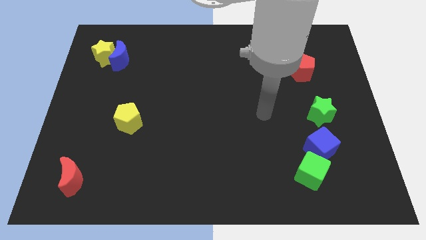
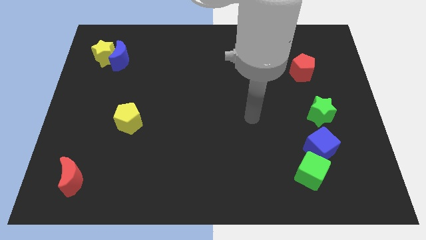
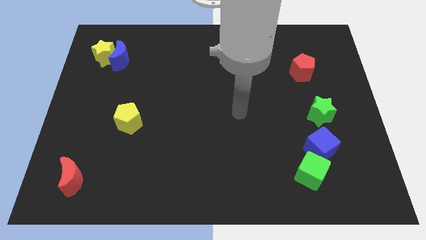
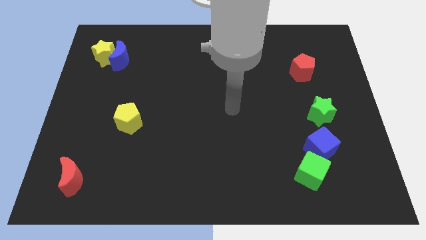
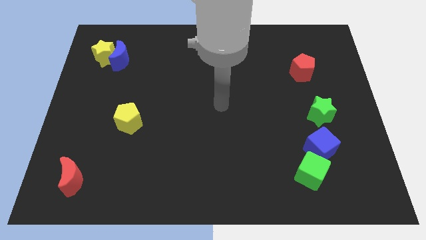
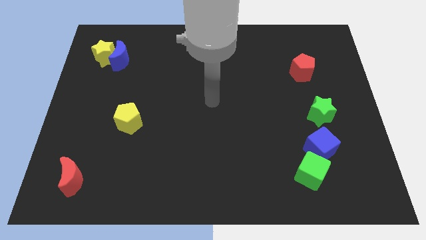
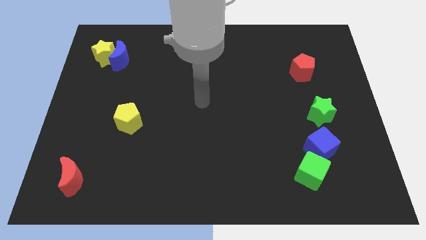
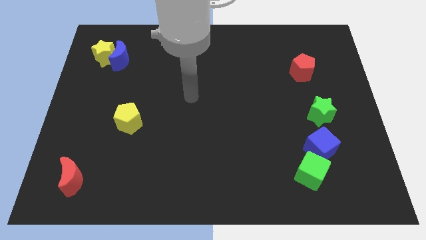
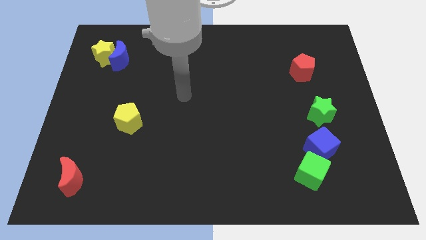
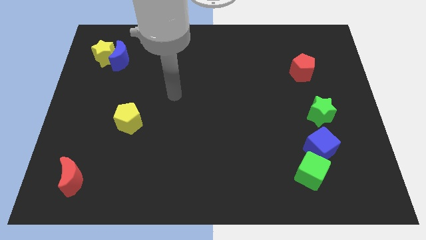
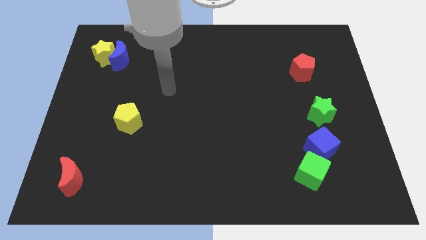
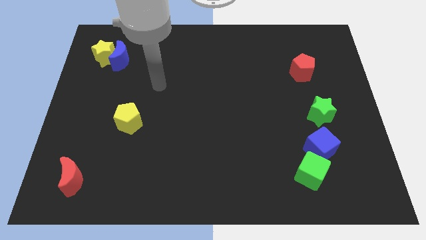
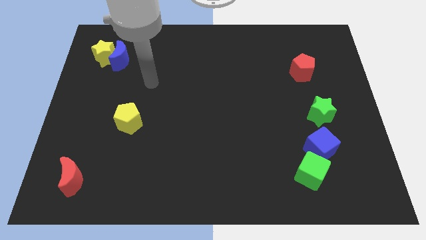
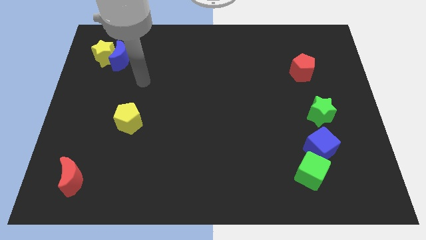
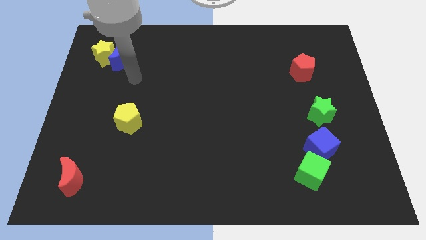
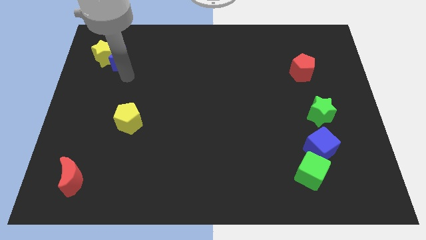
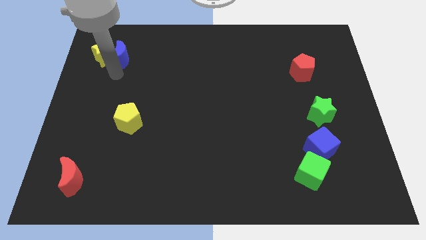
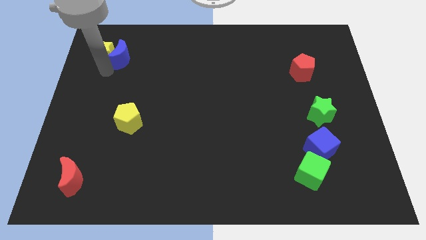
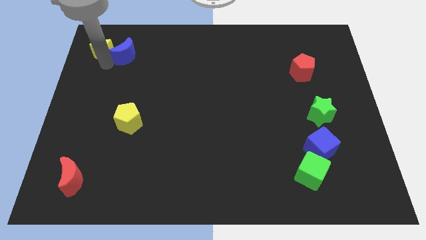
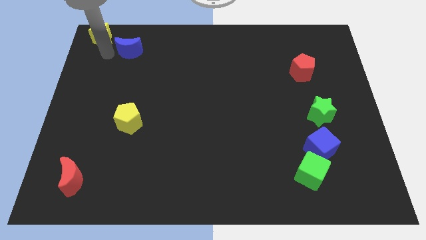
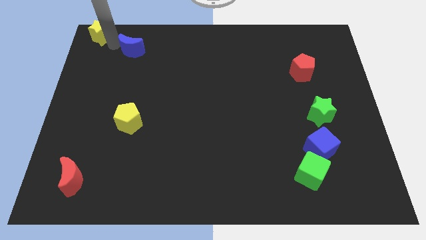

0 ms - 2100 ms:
separate the blue moon from the yellow star

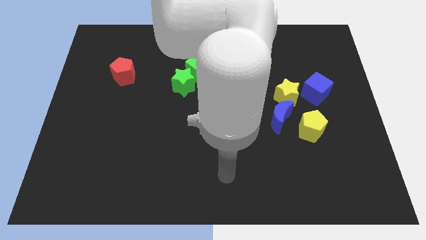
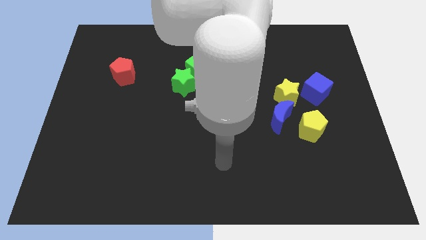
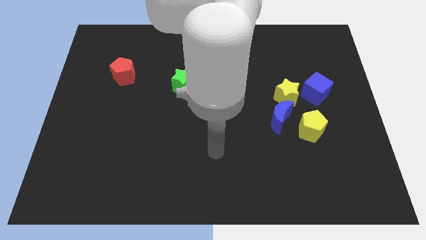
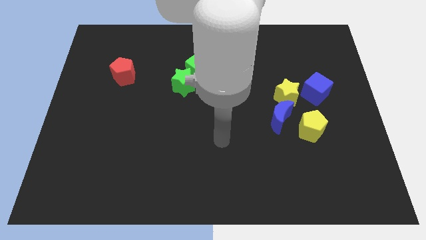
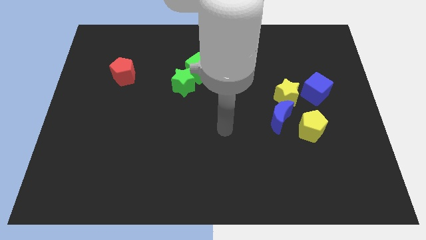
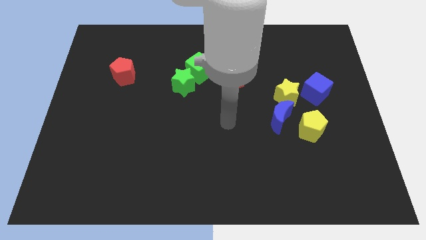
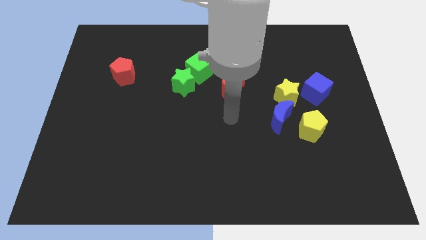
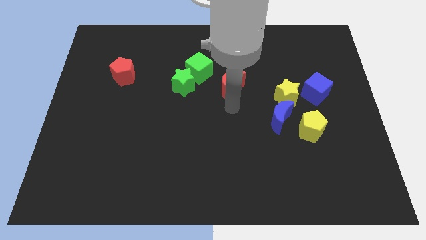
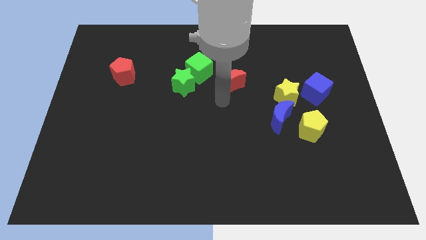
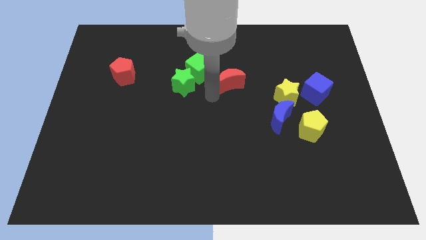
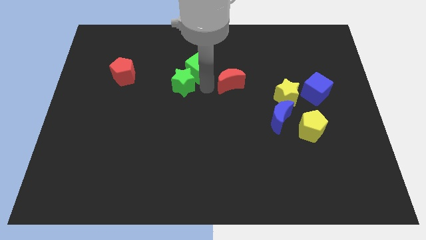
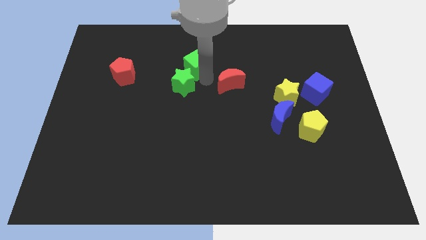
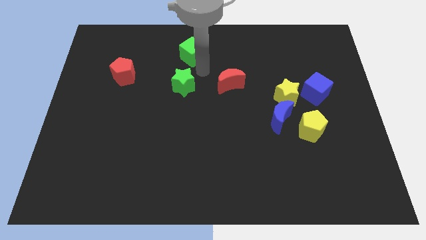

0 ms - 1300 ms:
move the green star away from the green cube

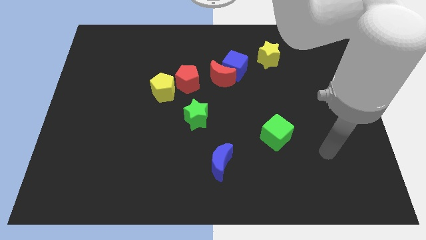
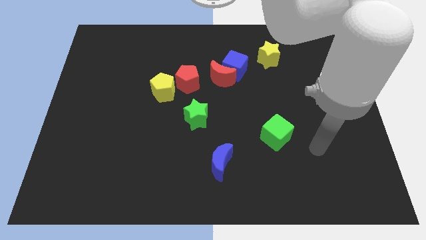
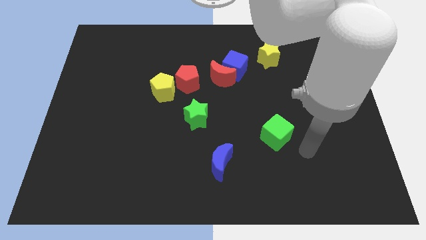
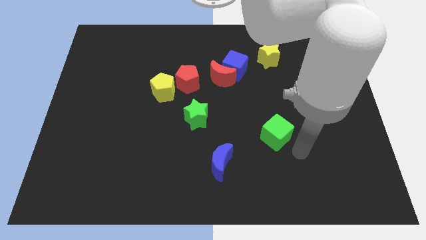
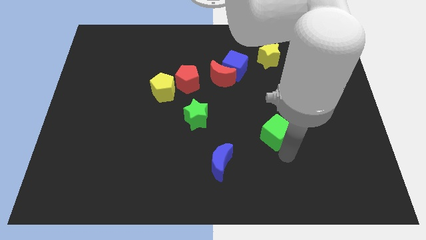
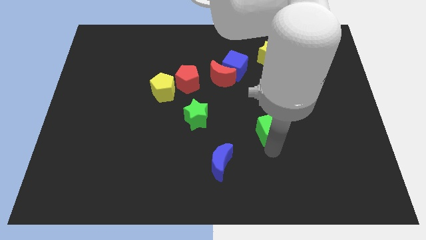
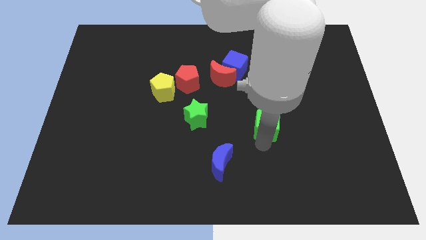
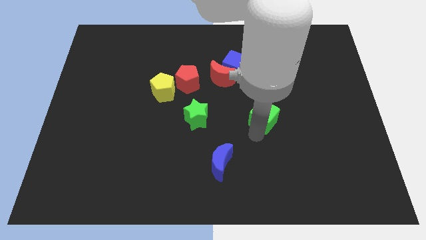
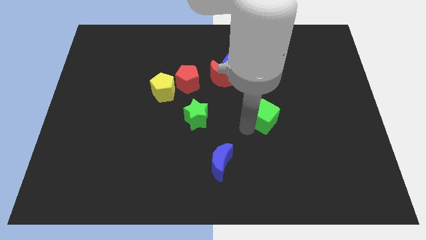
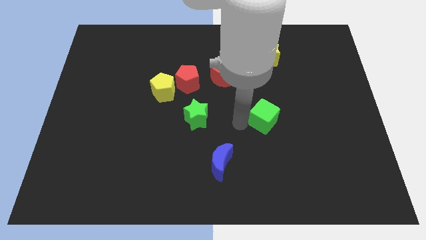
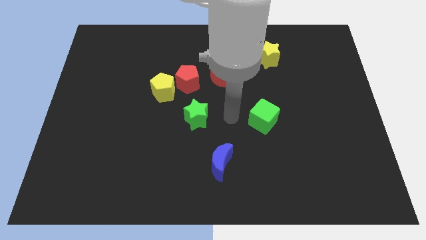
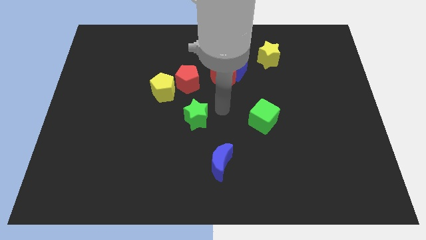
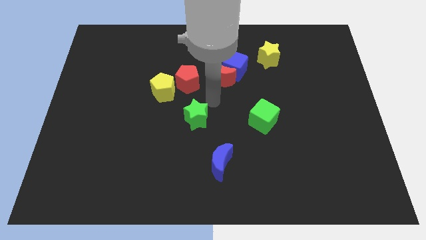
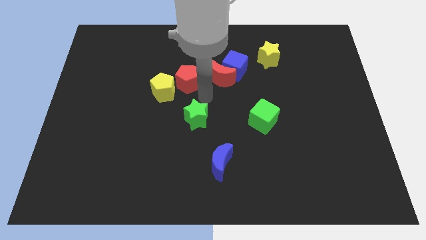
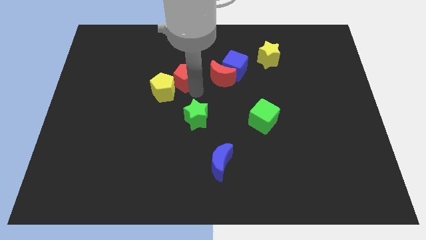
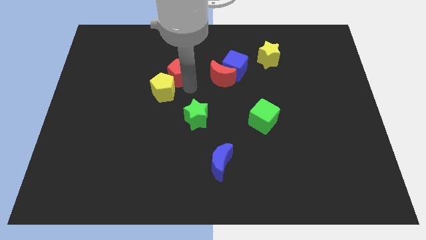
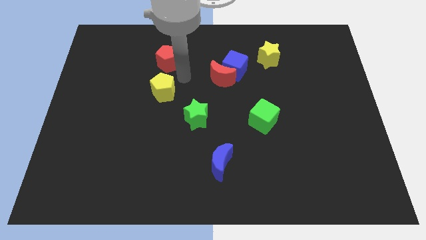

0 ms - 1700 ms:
move the yellow pentagon away from the red pentagon

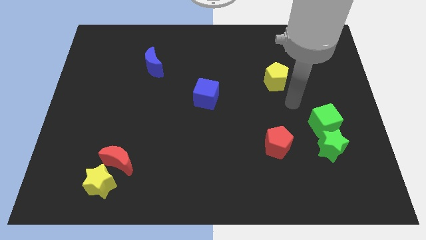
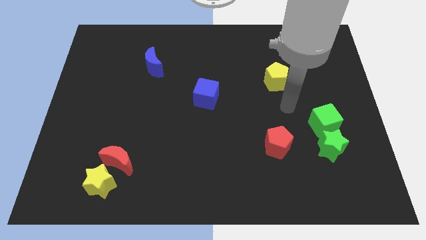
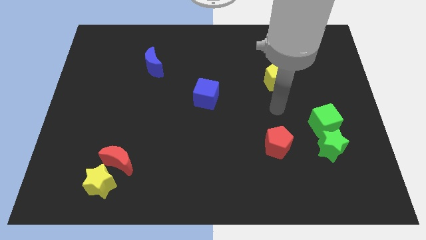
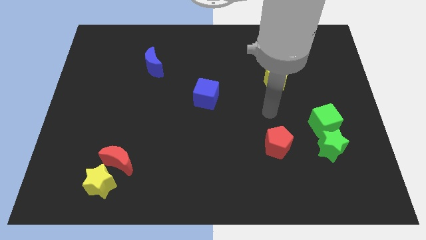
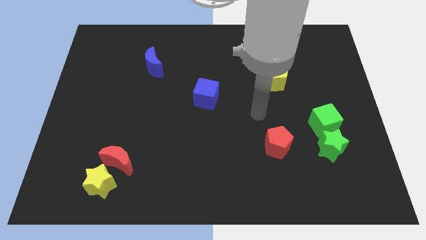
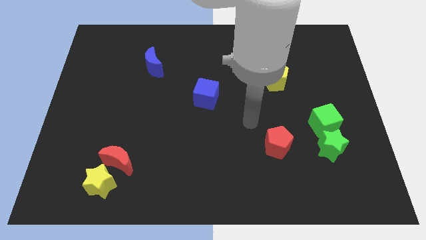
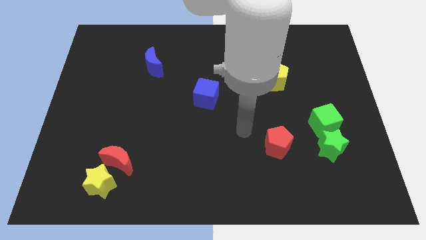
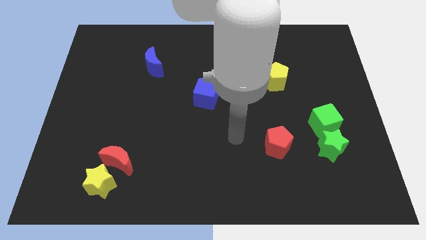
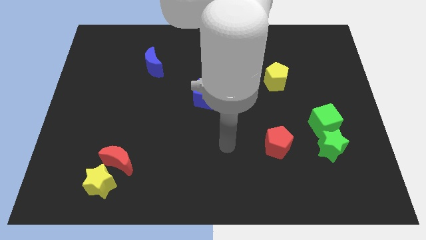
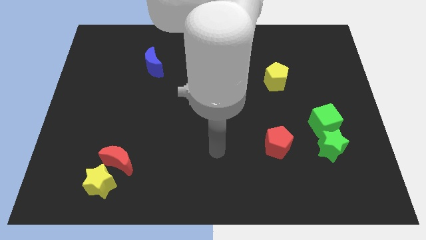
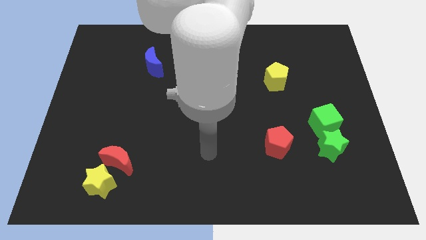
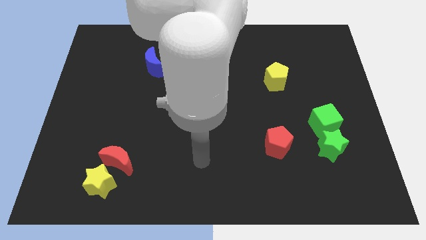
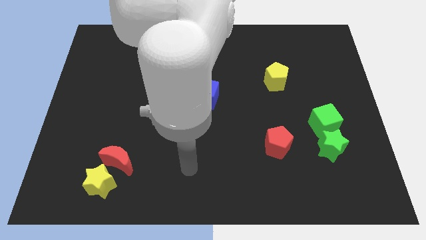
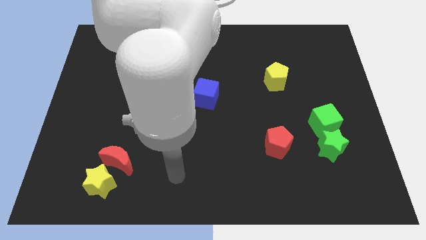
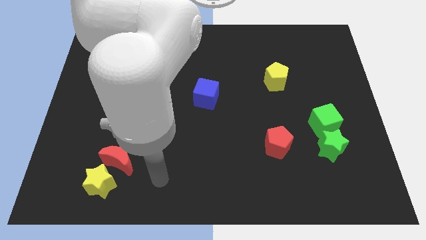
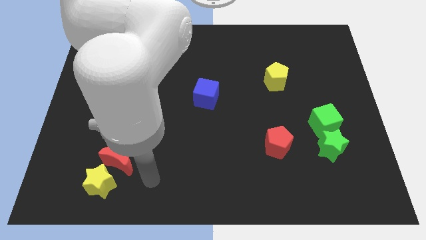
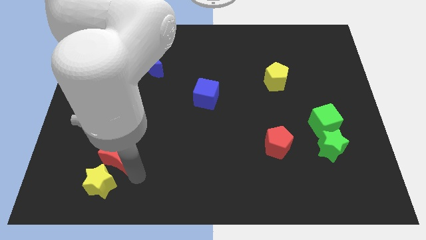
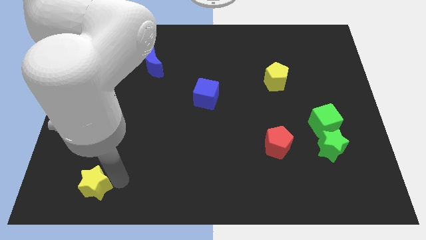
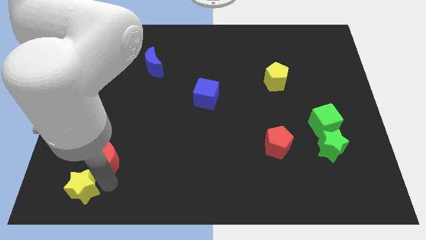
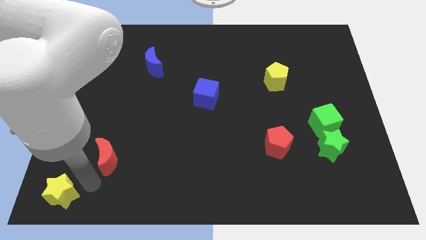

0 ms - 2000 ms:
separate the red moon from the yellow star

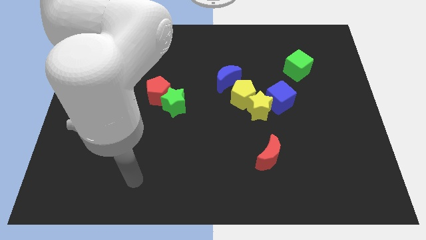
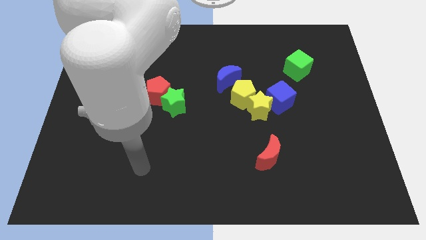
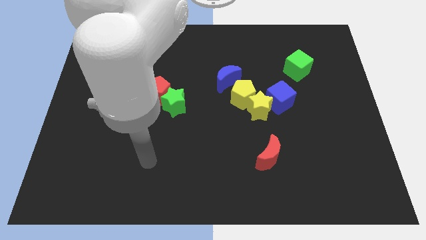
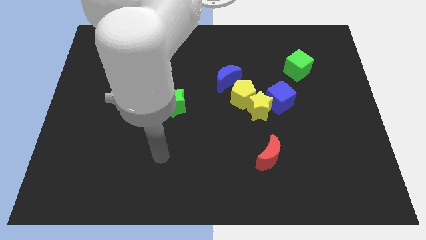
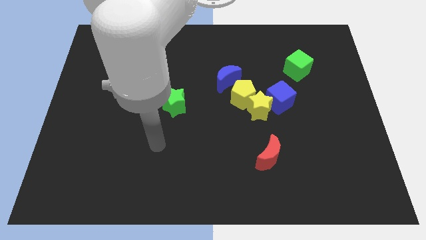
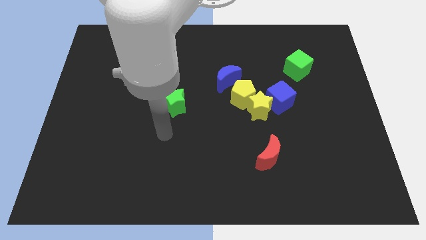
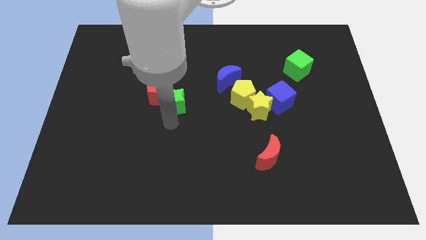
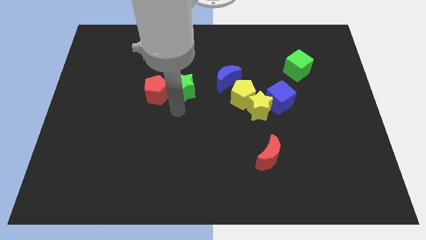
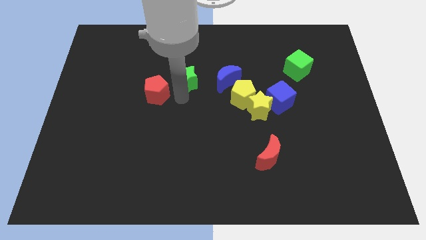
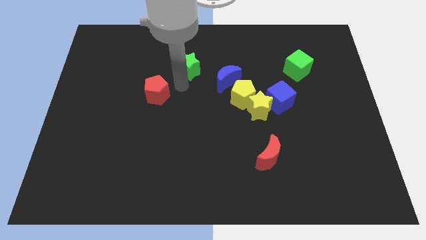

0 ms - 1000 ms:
pull the red pentagon apart from the green star

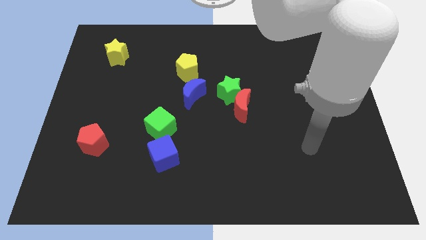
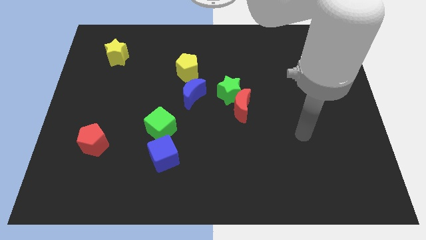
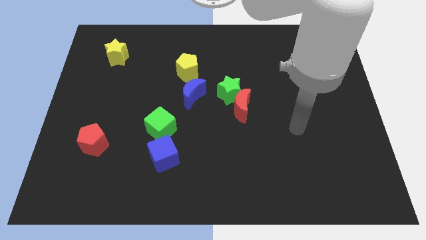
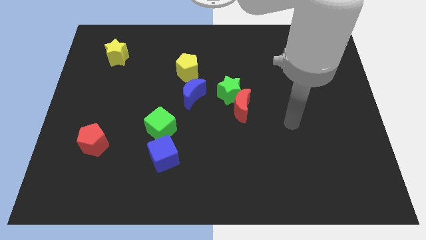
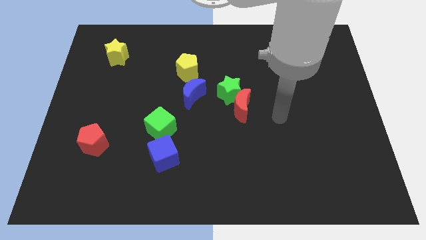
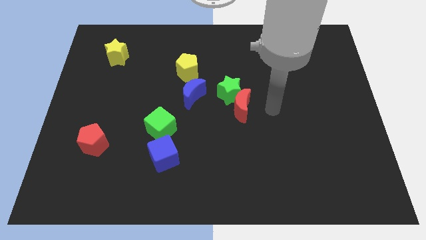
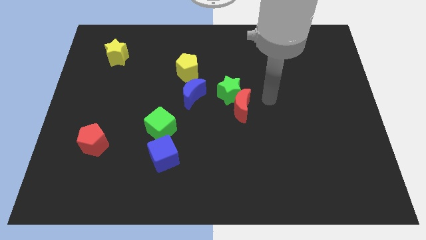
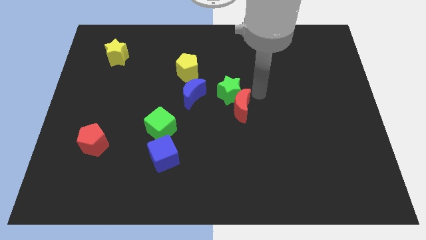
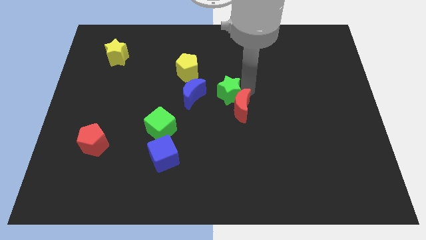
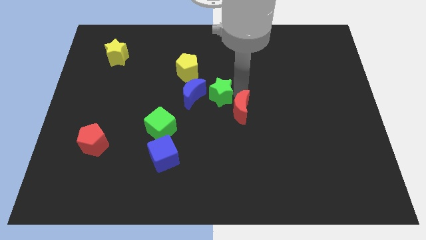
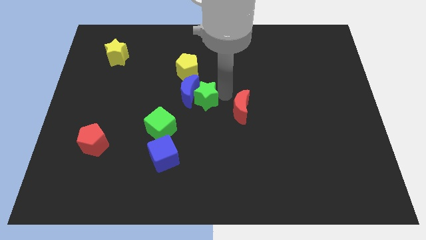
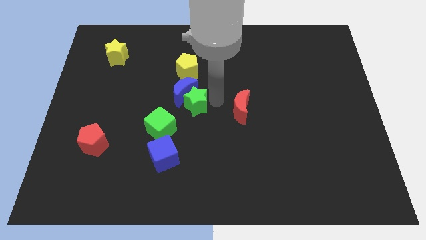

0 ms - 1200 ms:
move the red moon away from the green star

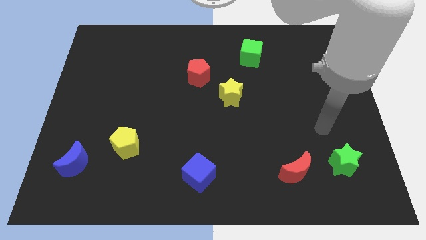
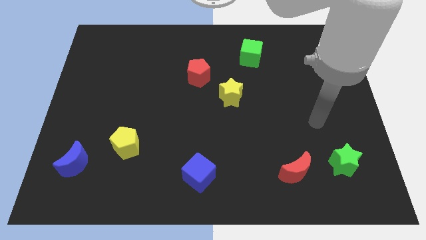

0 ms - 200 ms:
separate the red pentagon from the yellow star
